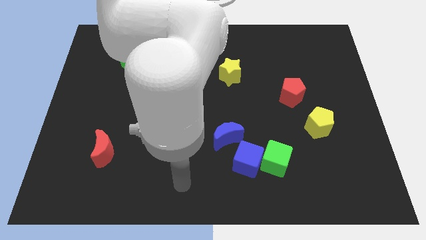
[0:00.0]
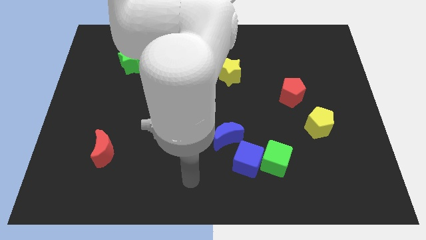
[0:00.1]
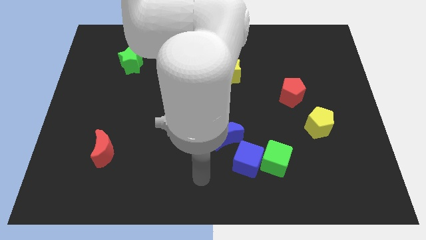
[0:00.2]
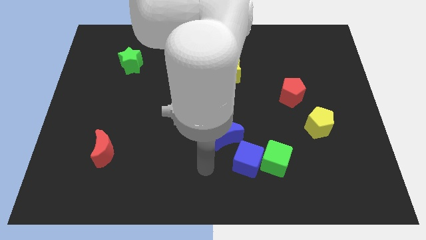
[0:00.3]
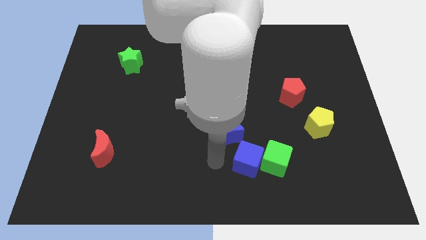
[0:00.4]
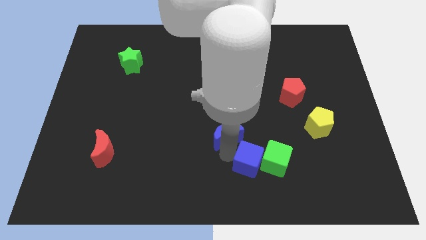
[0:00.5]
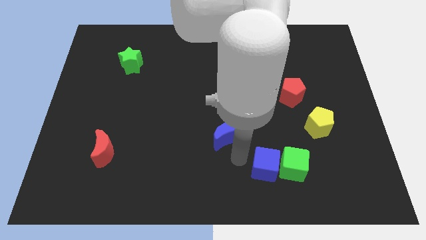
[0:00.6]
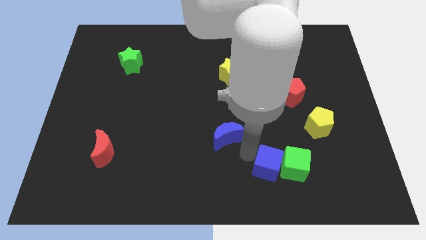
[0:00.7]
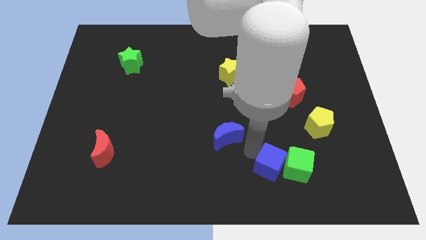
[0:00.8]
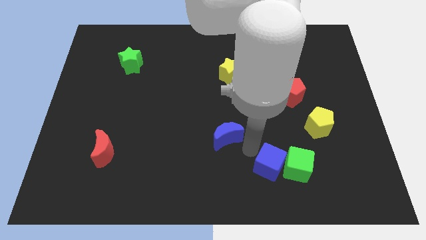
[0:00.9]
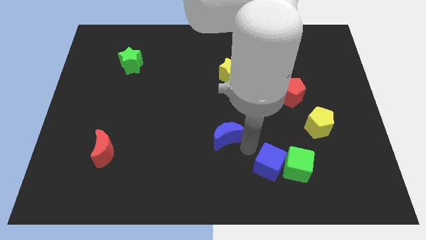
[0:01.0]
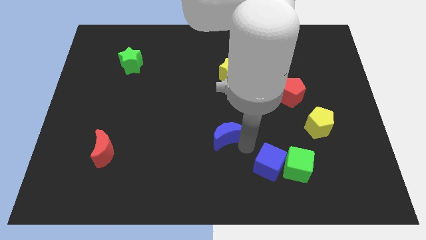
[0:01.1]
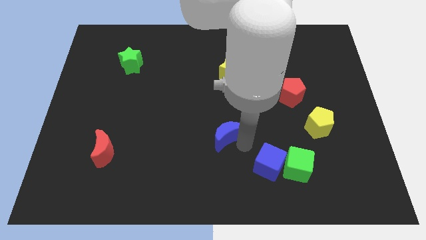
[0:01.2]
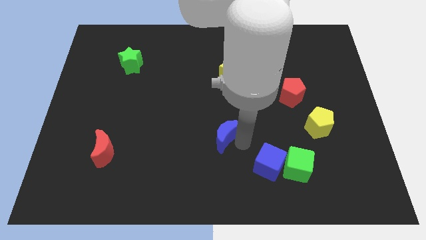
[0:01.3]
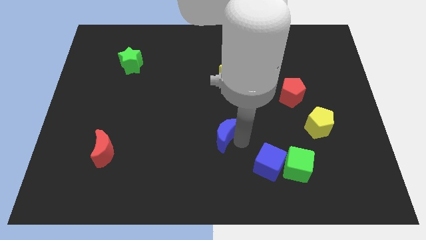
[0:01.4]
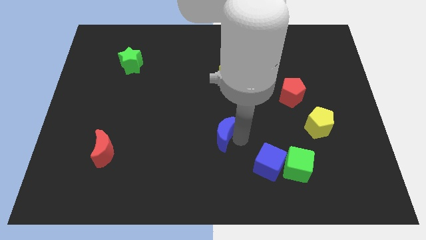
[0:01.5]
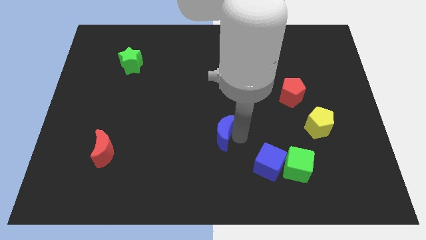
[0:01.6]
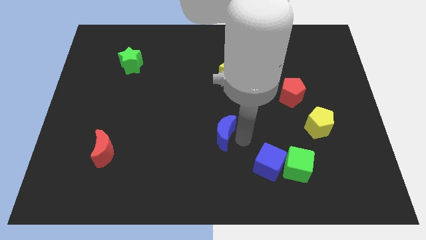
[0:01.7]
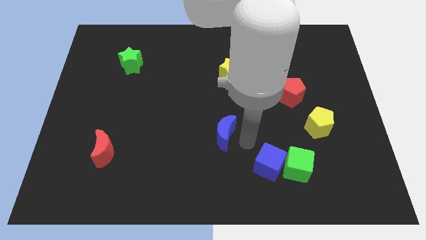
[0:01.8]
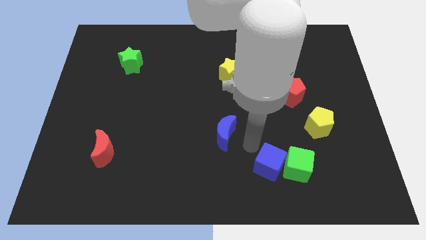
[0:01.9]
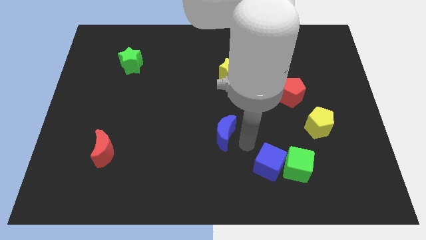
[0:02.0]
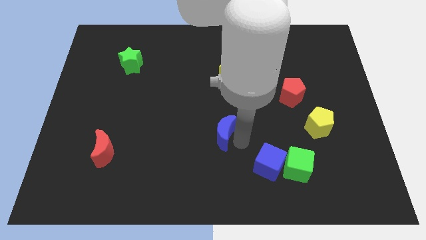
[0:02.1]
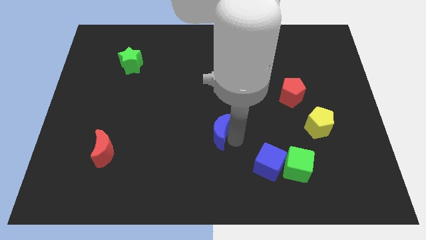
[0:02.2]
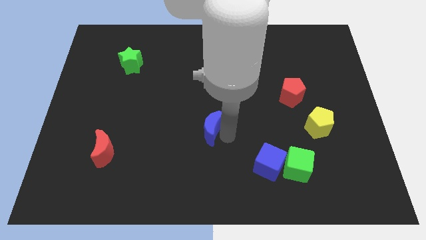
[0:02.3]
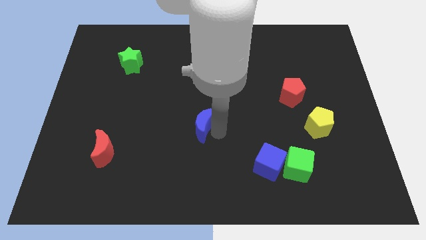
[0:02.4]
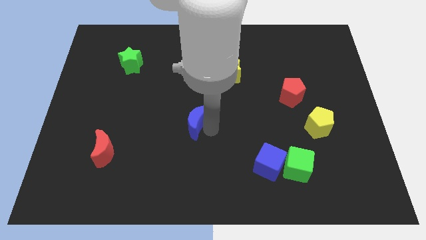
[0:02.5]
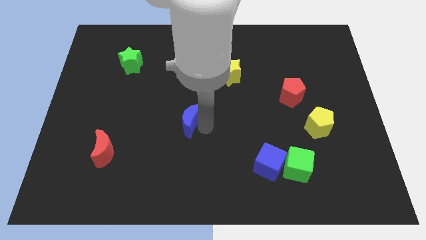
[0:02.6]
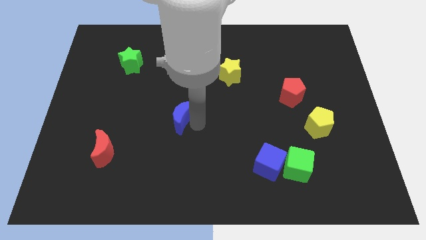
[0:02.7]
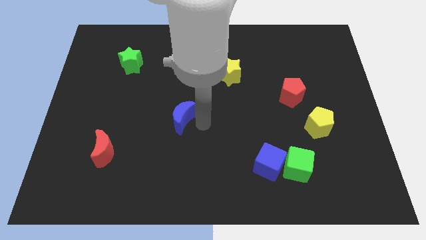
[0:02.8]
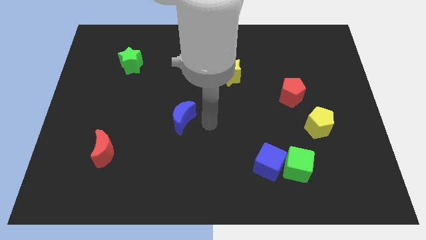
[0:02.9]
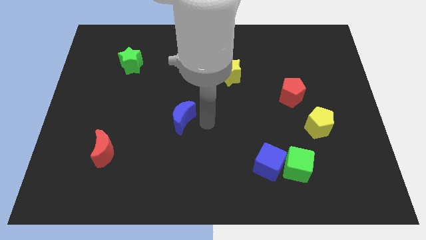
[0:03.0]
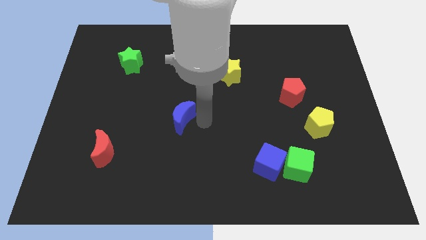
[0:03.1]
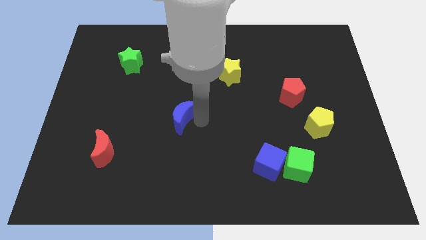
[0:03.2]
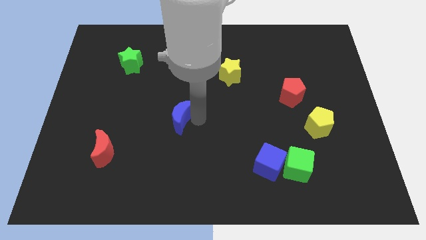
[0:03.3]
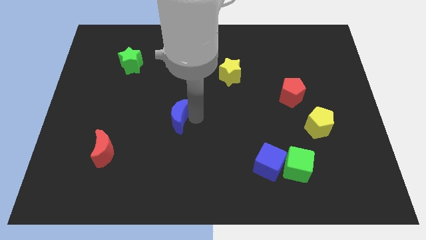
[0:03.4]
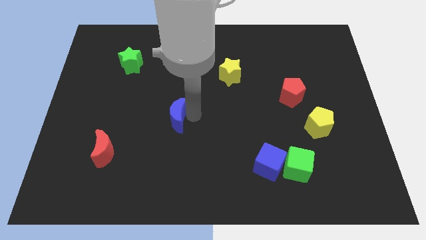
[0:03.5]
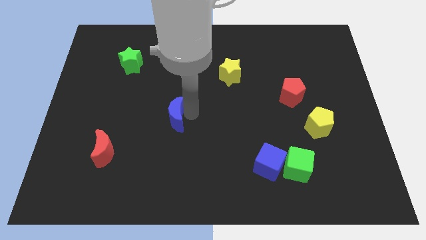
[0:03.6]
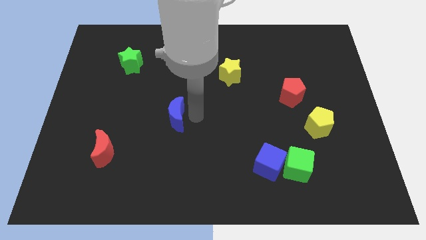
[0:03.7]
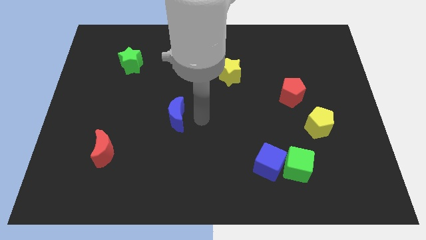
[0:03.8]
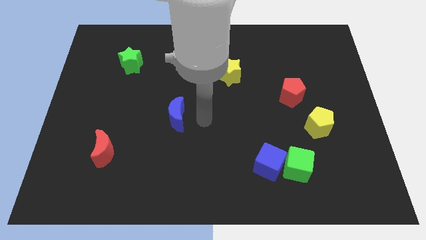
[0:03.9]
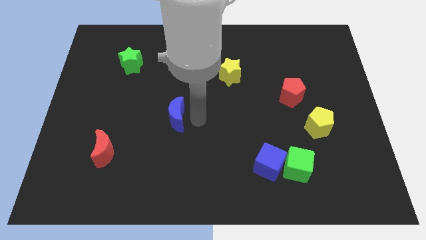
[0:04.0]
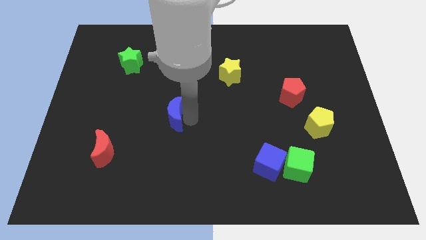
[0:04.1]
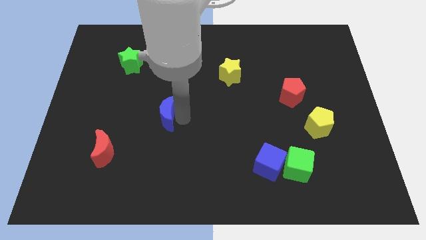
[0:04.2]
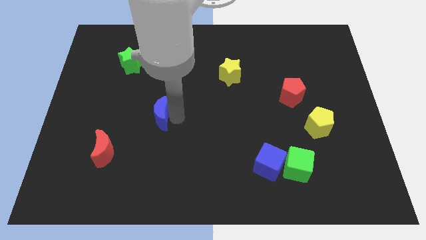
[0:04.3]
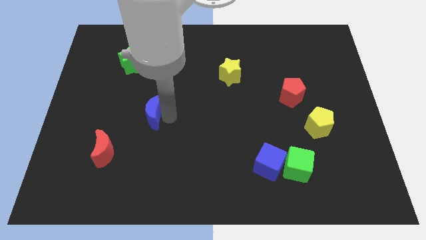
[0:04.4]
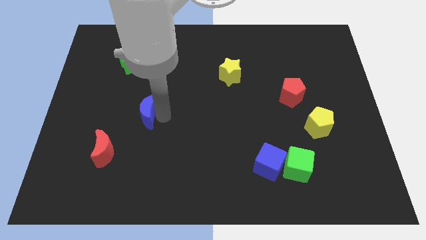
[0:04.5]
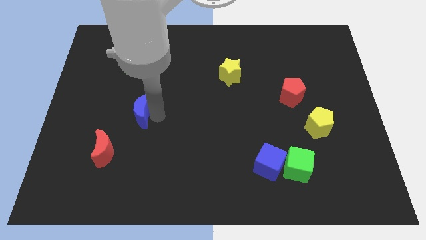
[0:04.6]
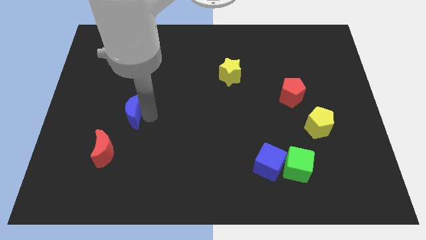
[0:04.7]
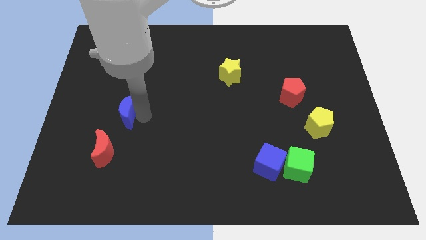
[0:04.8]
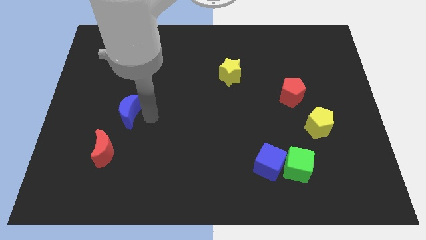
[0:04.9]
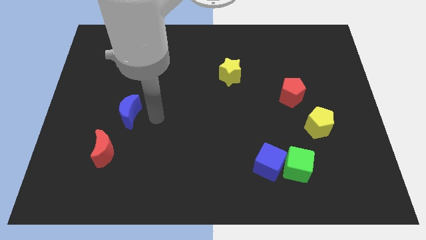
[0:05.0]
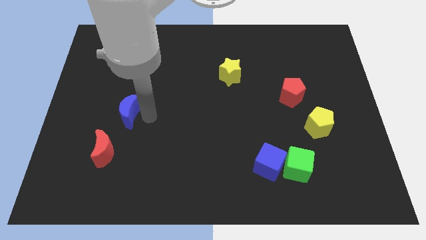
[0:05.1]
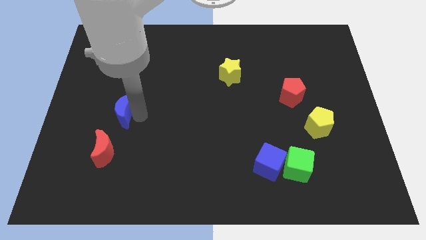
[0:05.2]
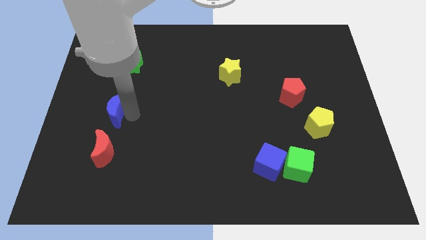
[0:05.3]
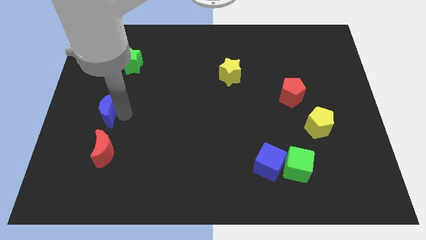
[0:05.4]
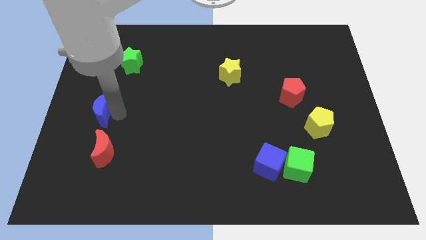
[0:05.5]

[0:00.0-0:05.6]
move the blue moon to the left side

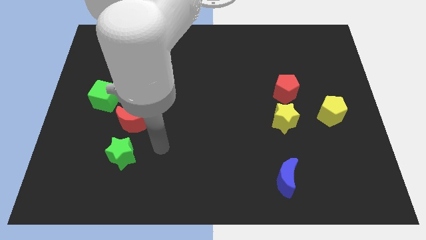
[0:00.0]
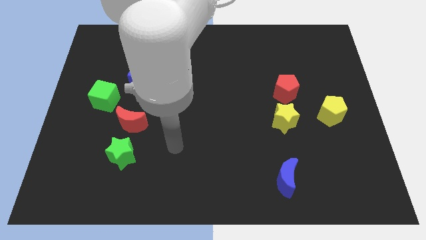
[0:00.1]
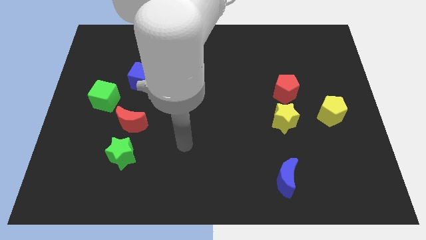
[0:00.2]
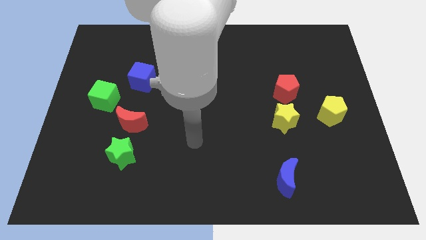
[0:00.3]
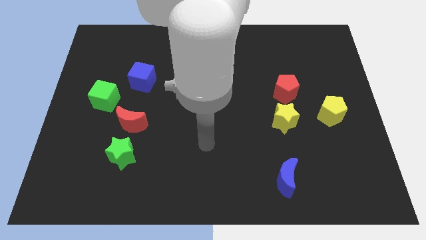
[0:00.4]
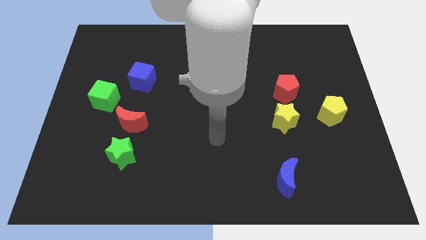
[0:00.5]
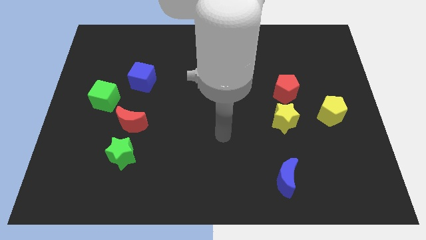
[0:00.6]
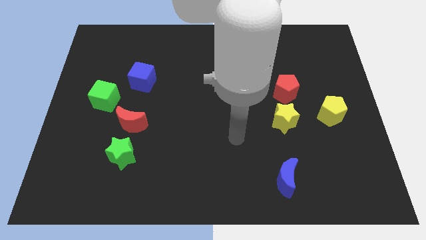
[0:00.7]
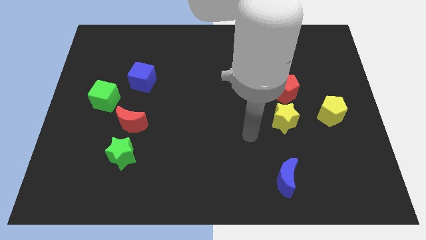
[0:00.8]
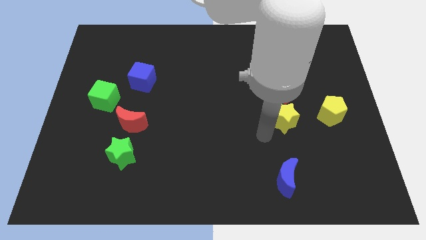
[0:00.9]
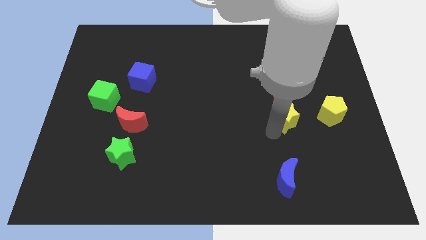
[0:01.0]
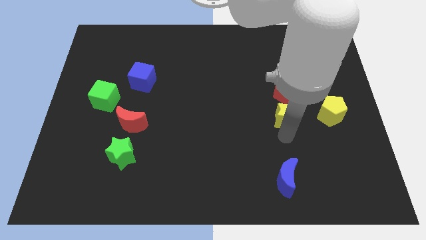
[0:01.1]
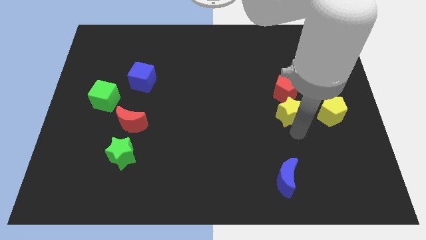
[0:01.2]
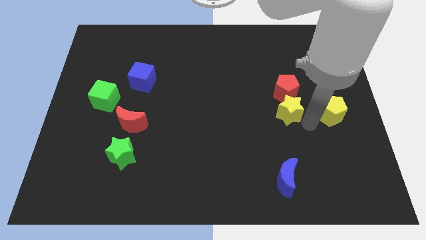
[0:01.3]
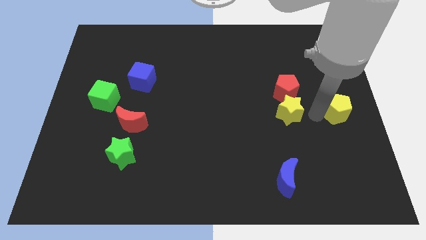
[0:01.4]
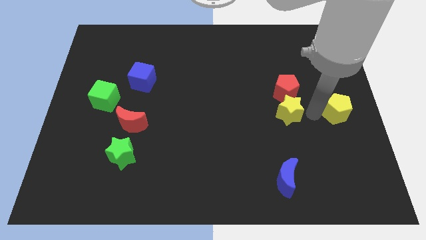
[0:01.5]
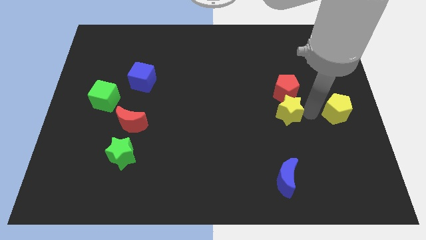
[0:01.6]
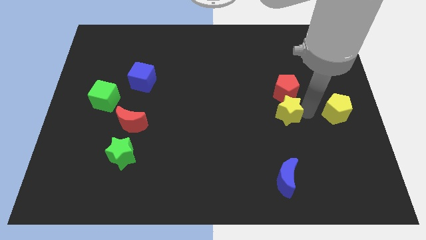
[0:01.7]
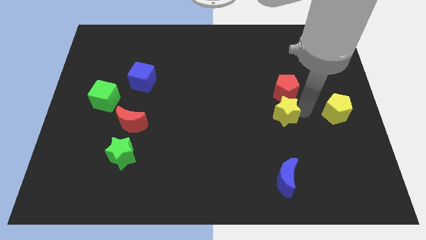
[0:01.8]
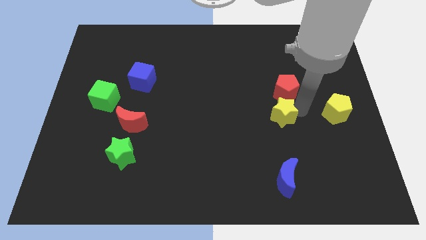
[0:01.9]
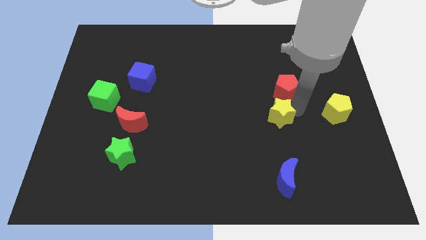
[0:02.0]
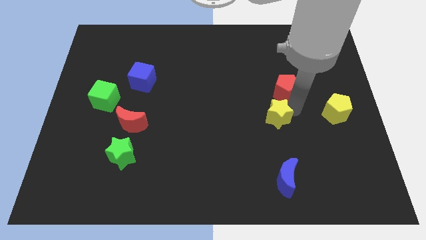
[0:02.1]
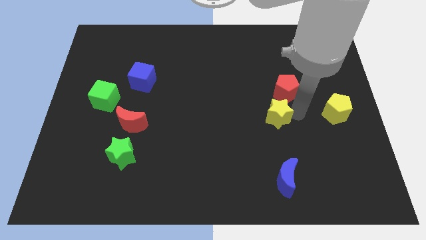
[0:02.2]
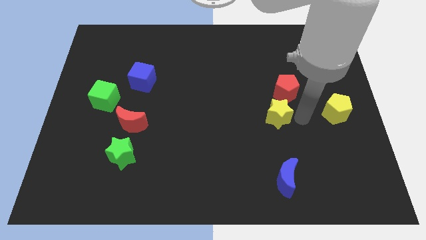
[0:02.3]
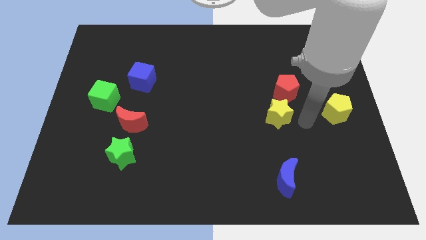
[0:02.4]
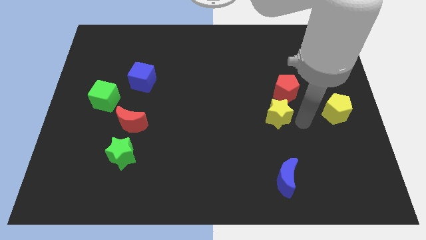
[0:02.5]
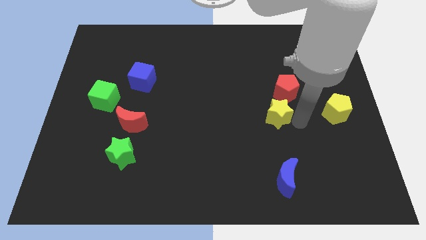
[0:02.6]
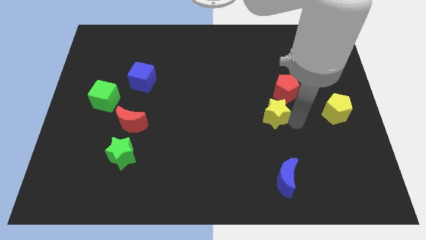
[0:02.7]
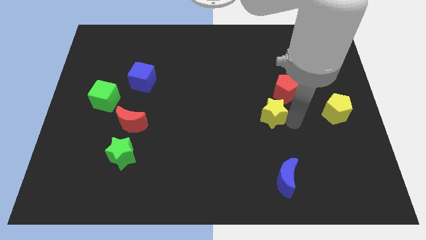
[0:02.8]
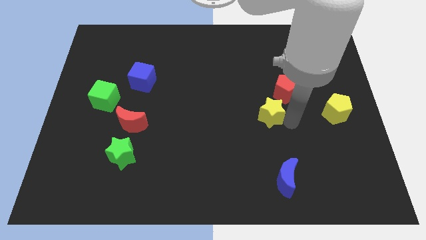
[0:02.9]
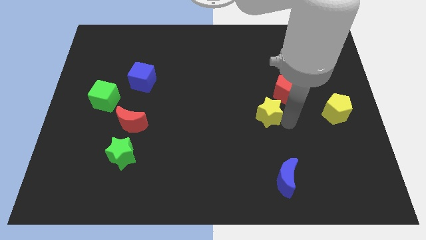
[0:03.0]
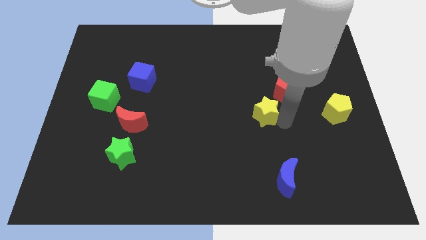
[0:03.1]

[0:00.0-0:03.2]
put the yellow star to the middle of the board
